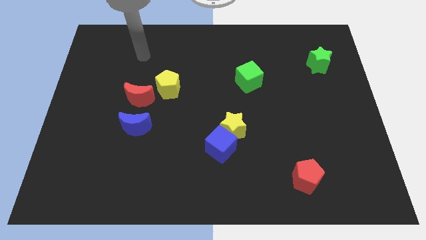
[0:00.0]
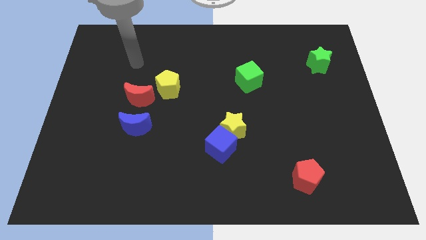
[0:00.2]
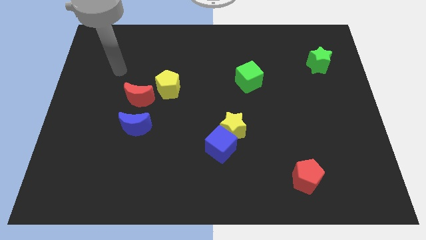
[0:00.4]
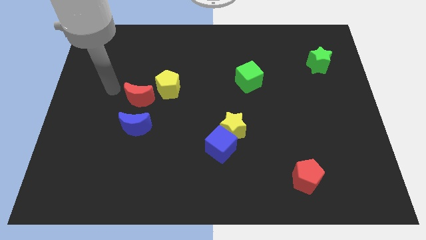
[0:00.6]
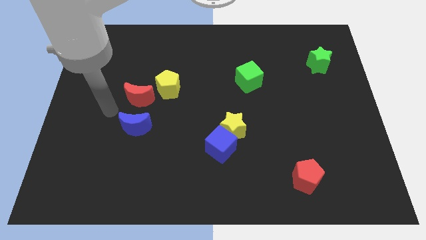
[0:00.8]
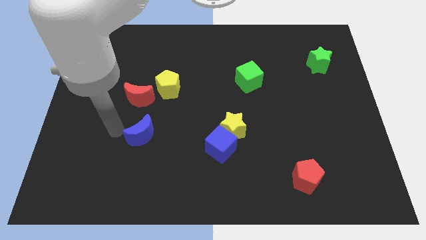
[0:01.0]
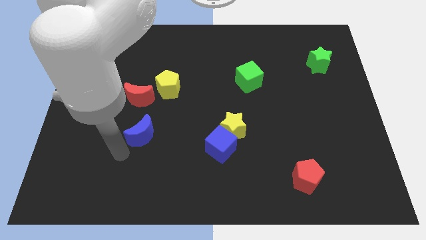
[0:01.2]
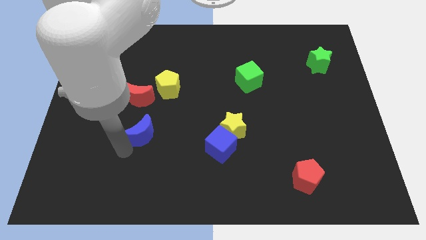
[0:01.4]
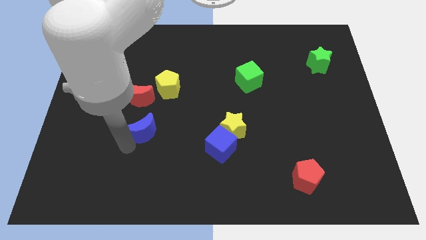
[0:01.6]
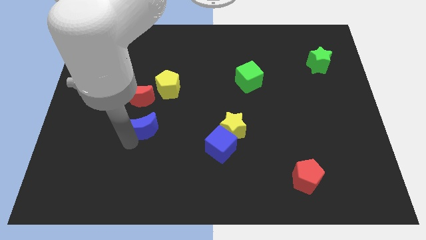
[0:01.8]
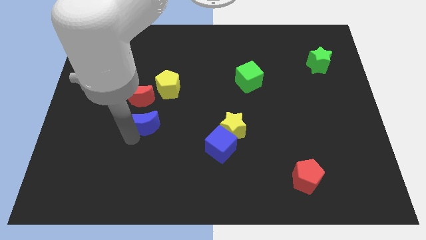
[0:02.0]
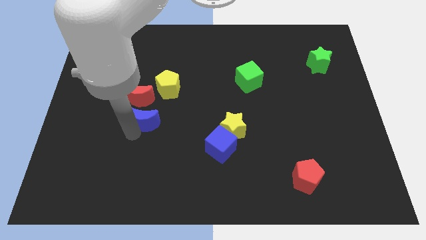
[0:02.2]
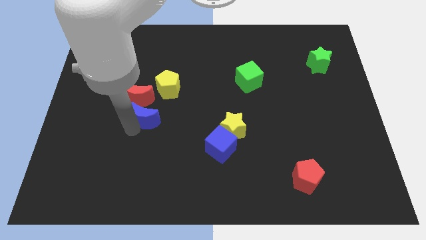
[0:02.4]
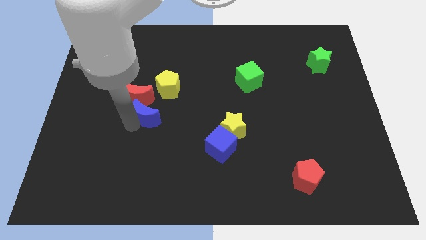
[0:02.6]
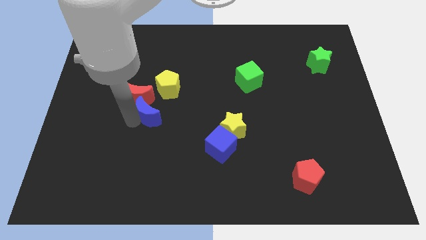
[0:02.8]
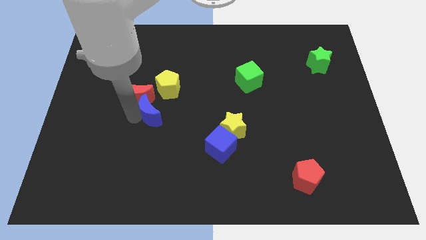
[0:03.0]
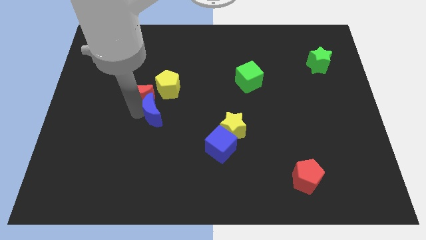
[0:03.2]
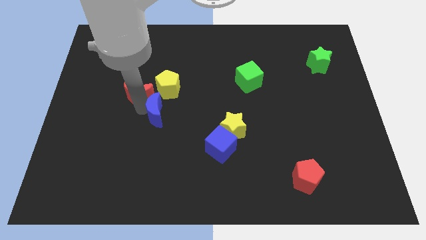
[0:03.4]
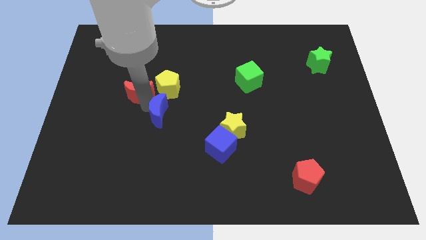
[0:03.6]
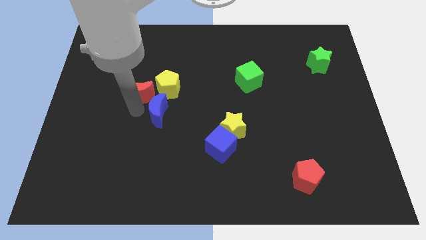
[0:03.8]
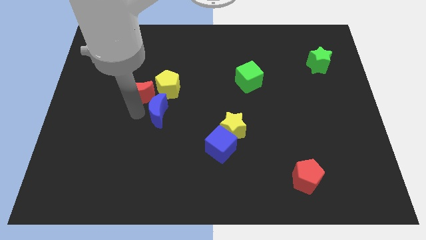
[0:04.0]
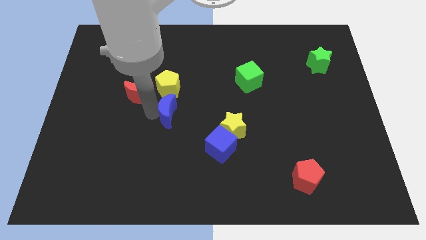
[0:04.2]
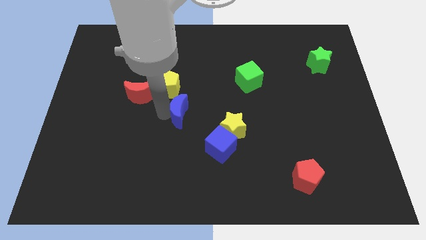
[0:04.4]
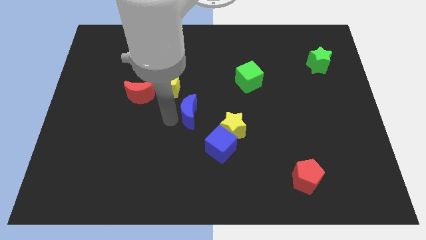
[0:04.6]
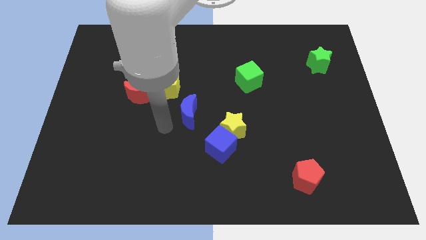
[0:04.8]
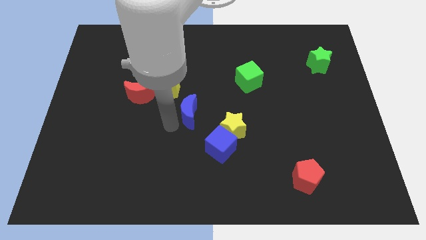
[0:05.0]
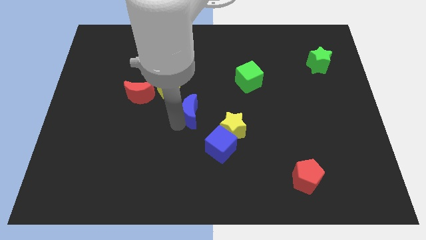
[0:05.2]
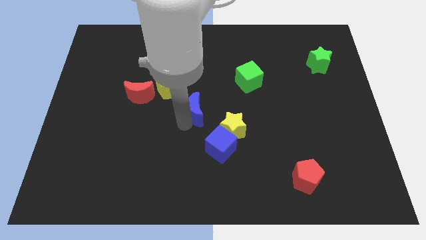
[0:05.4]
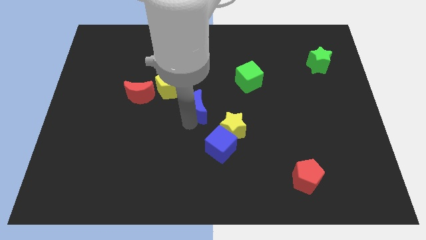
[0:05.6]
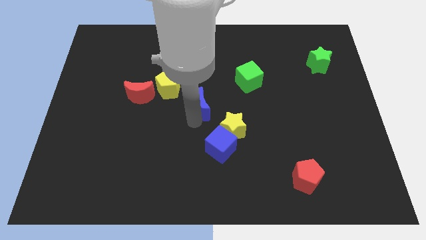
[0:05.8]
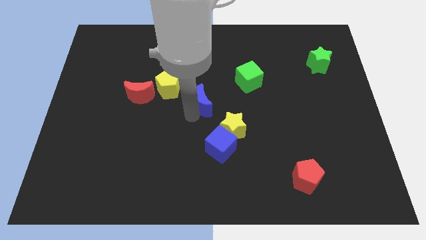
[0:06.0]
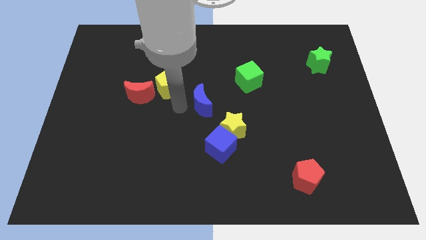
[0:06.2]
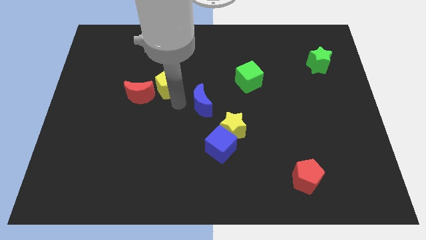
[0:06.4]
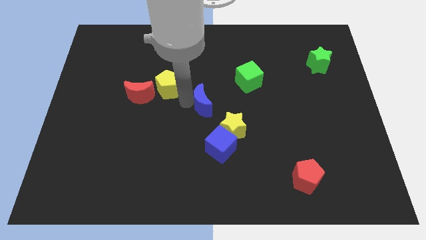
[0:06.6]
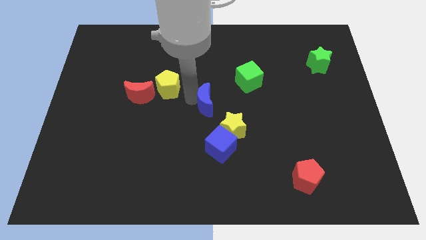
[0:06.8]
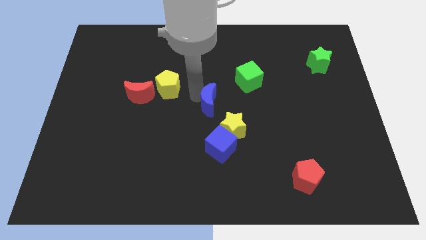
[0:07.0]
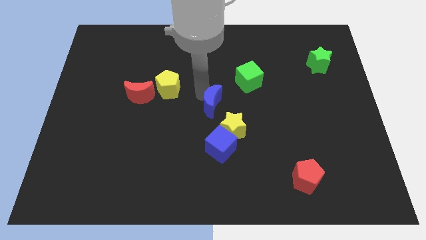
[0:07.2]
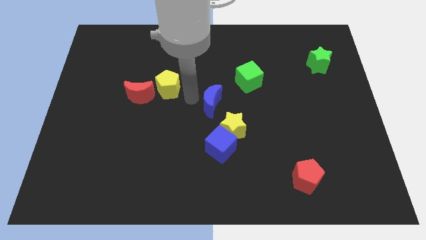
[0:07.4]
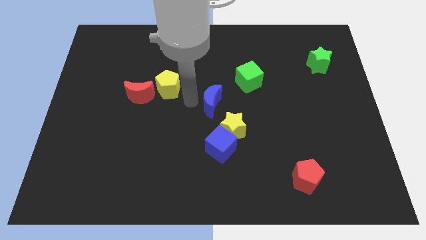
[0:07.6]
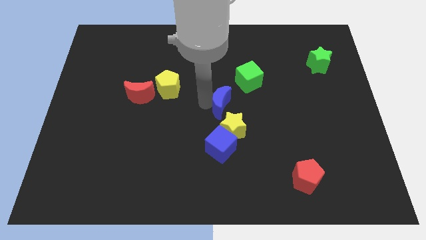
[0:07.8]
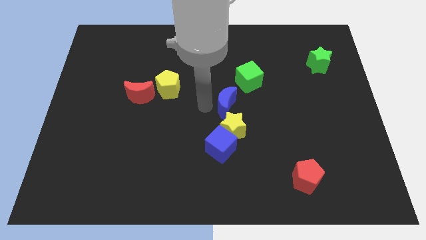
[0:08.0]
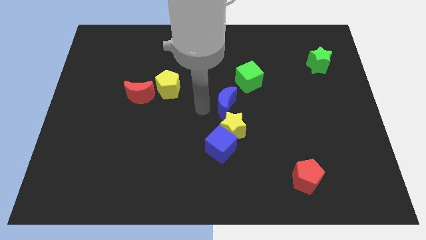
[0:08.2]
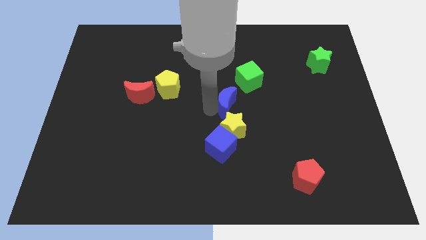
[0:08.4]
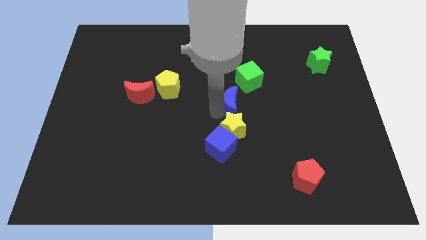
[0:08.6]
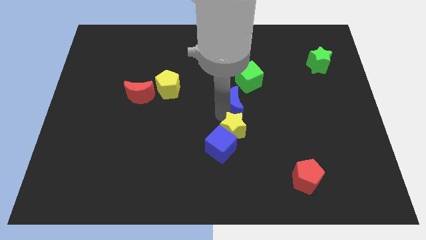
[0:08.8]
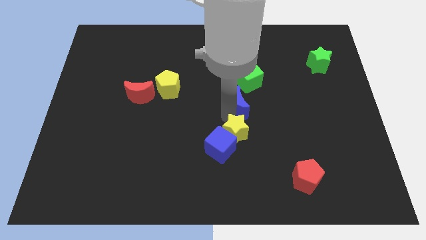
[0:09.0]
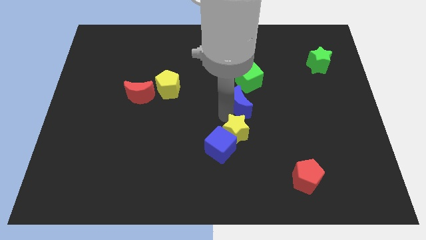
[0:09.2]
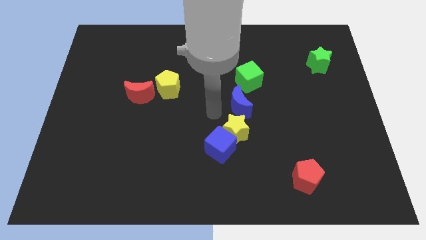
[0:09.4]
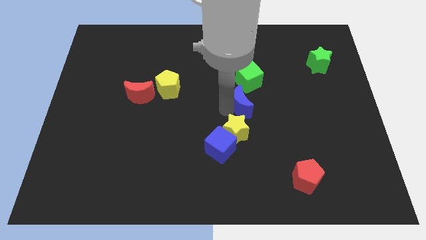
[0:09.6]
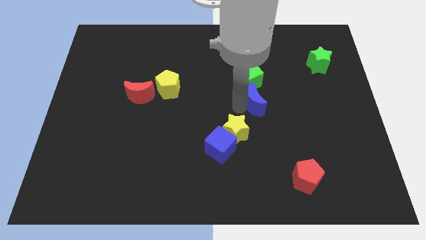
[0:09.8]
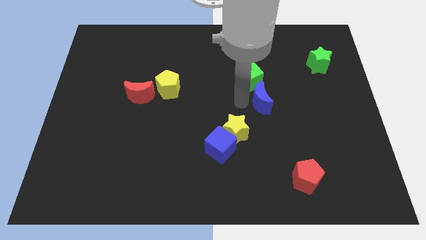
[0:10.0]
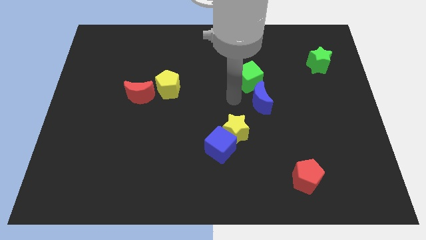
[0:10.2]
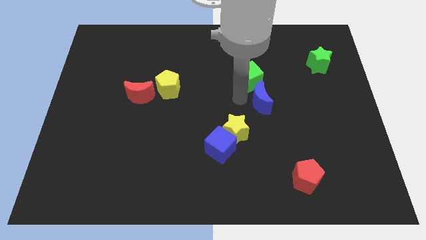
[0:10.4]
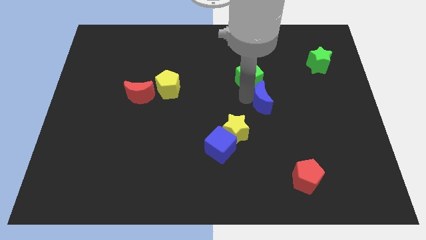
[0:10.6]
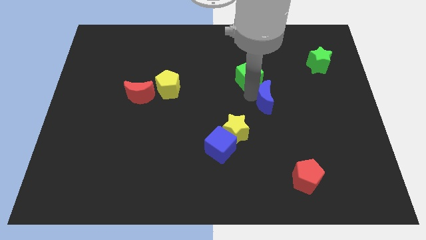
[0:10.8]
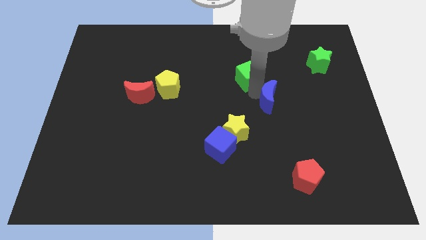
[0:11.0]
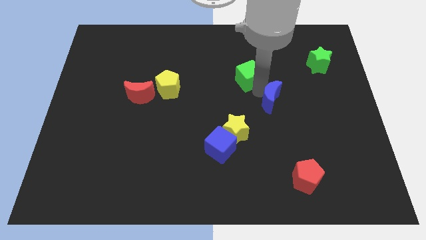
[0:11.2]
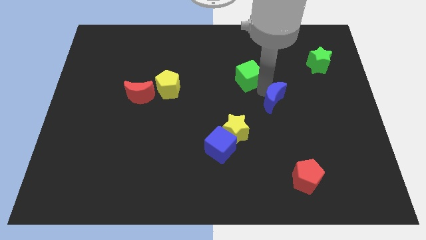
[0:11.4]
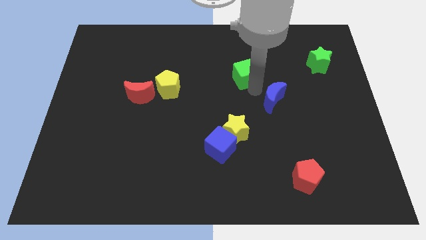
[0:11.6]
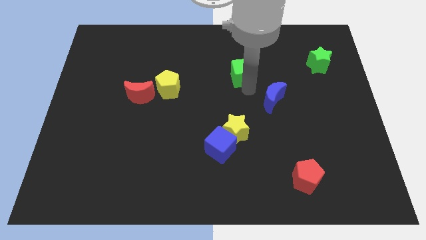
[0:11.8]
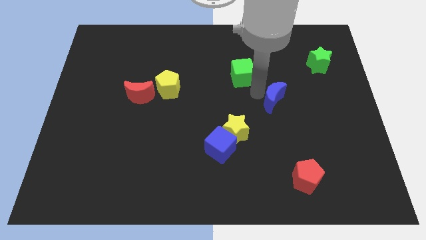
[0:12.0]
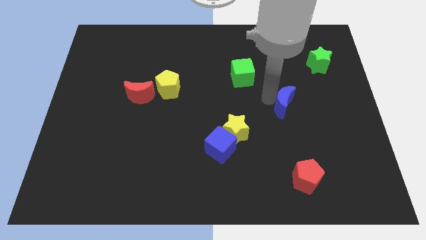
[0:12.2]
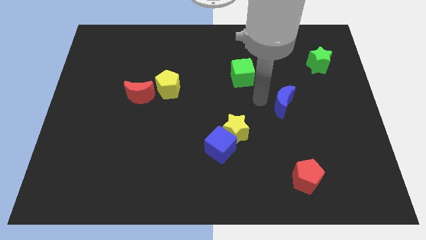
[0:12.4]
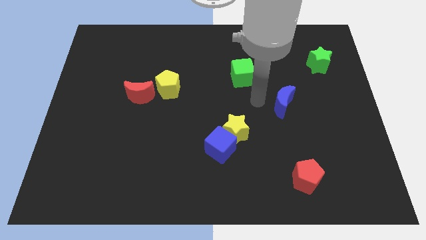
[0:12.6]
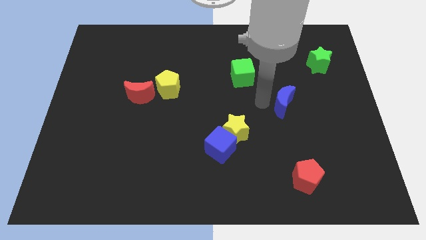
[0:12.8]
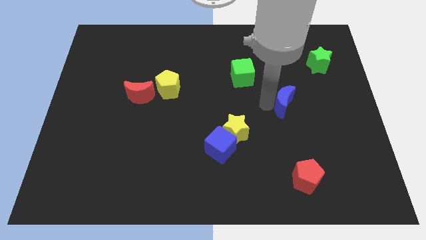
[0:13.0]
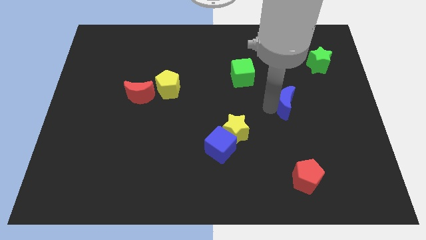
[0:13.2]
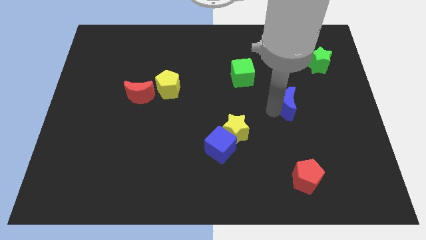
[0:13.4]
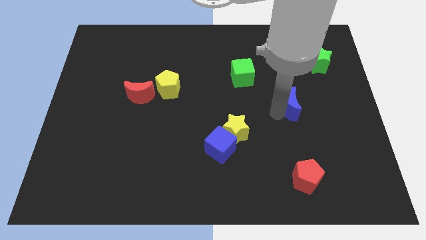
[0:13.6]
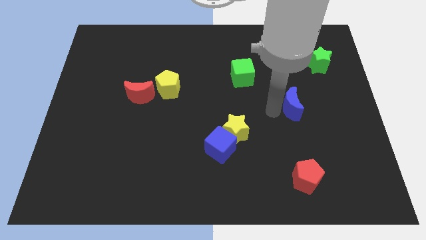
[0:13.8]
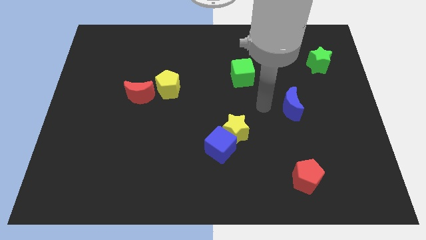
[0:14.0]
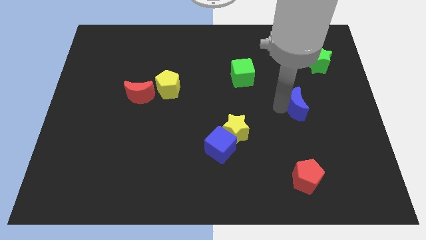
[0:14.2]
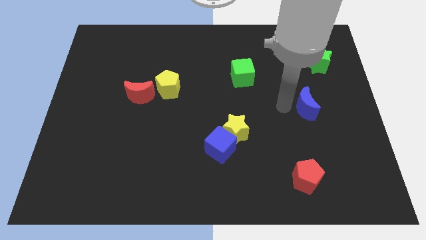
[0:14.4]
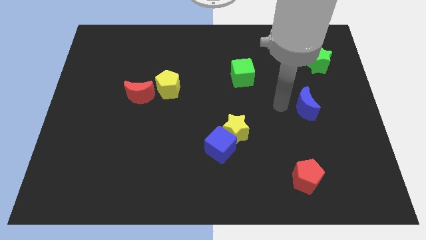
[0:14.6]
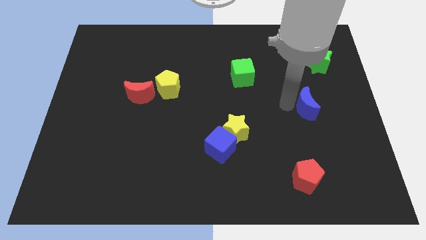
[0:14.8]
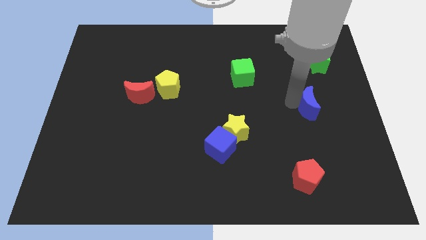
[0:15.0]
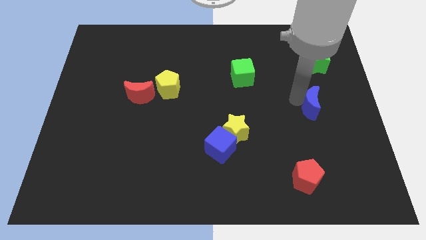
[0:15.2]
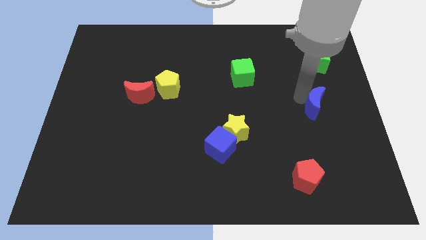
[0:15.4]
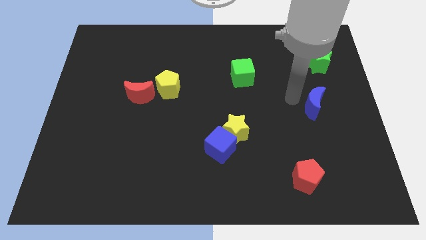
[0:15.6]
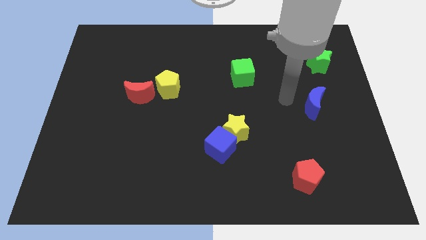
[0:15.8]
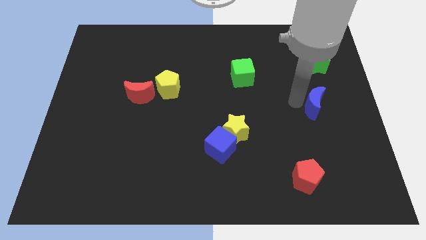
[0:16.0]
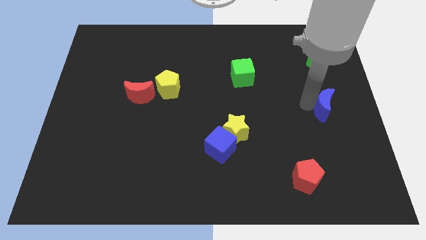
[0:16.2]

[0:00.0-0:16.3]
push the blue moon to the right side of the board
